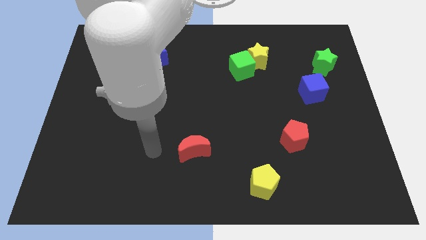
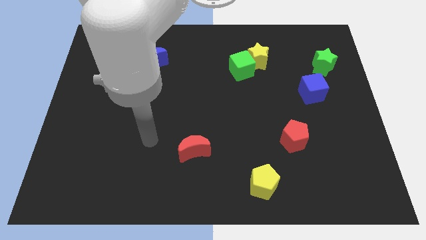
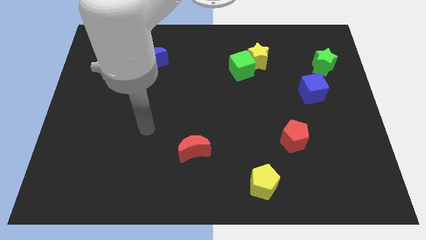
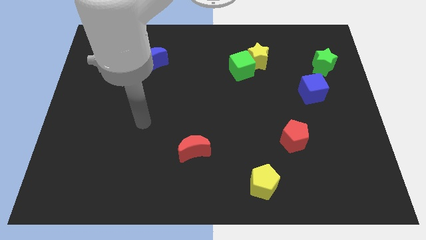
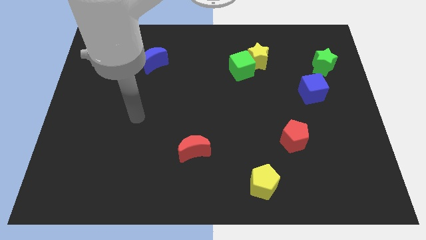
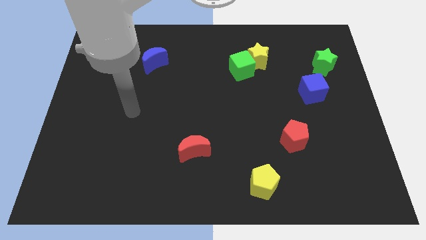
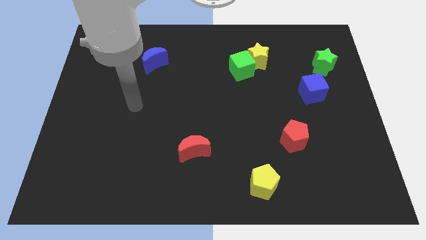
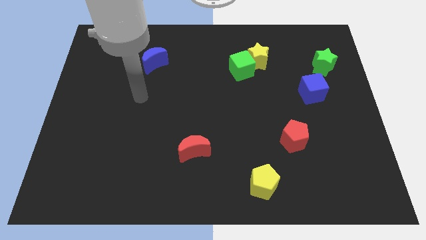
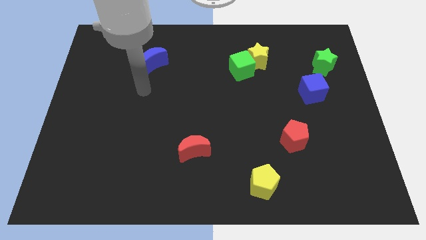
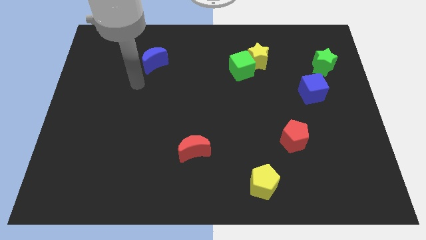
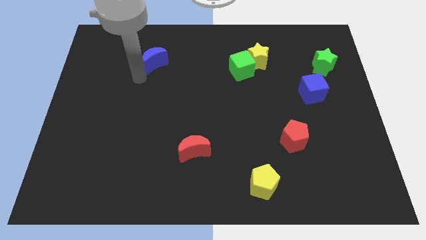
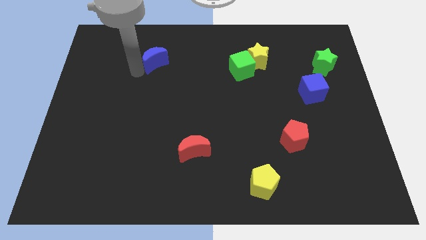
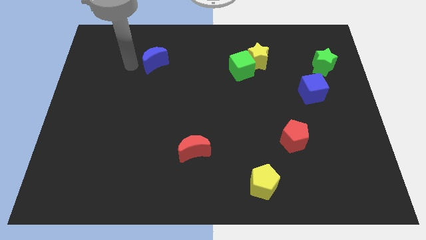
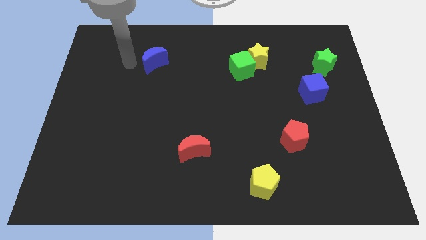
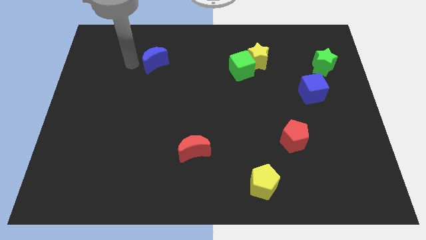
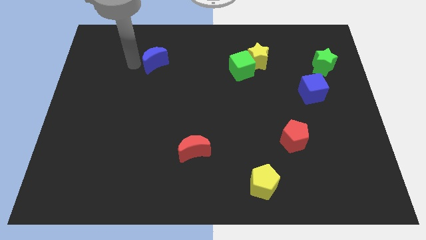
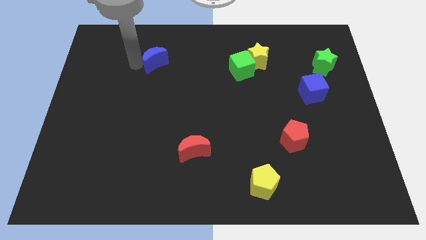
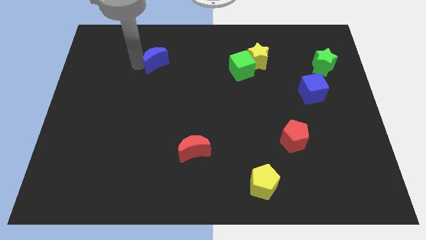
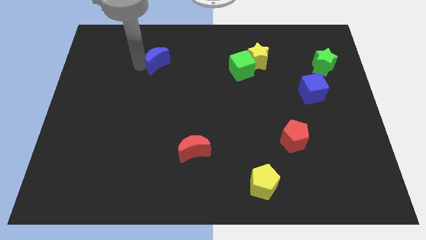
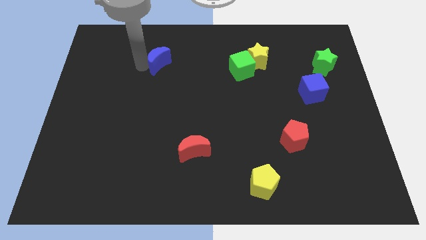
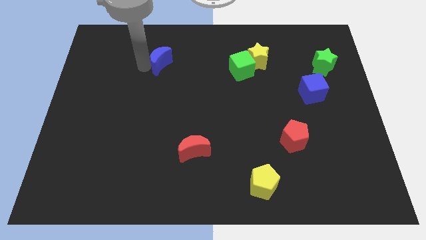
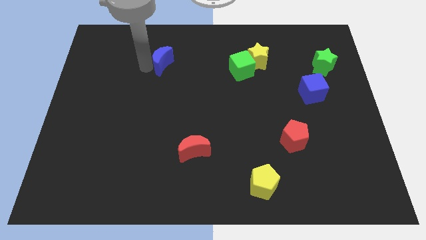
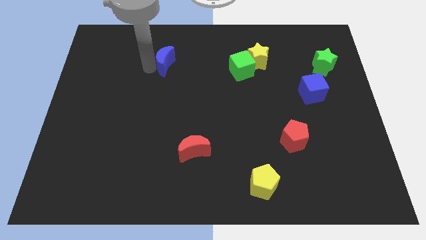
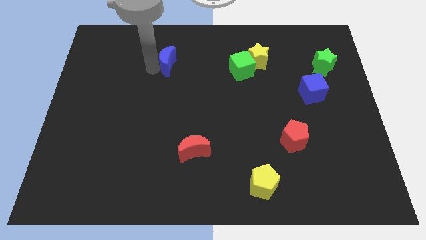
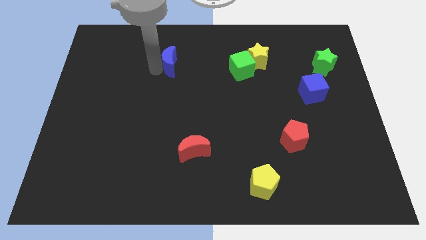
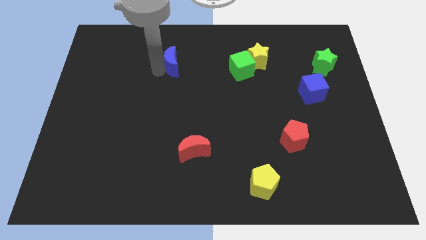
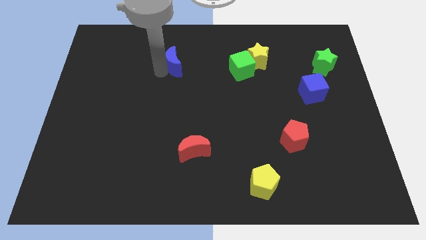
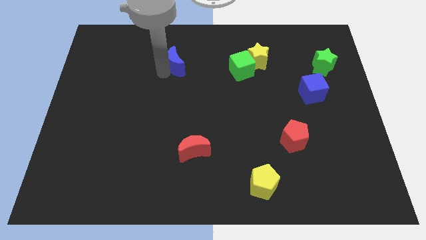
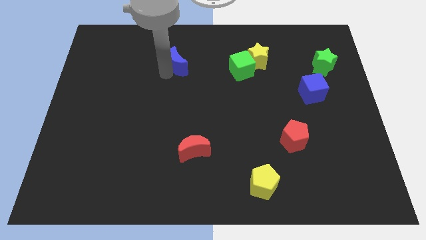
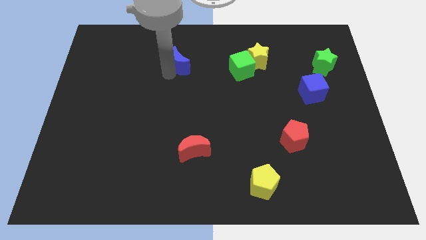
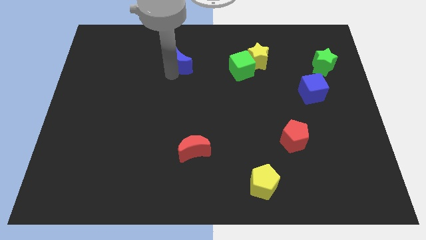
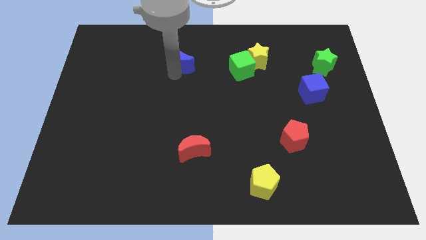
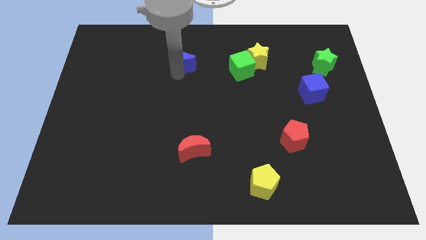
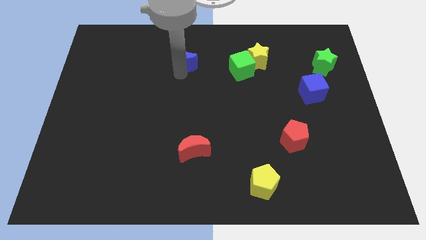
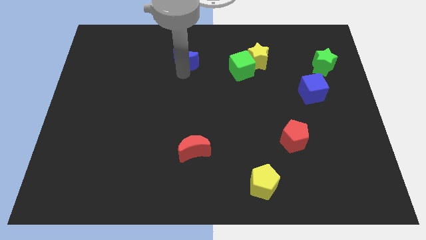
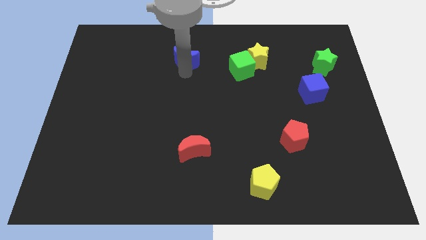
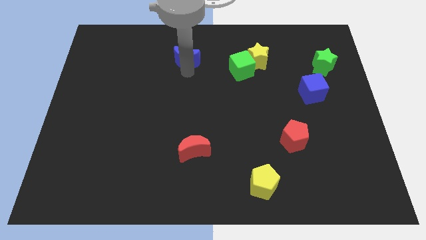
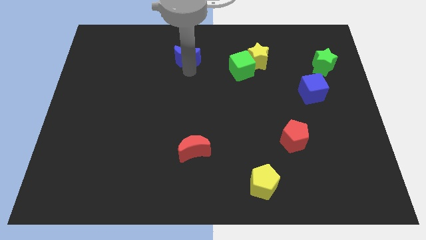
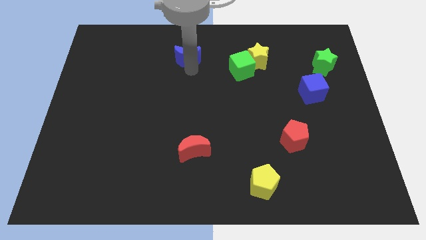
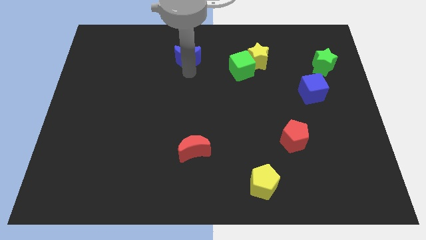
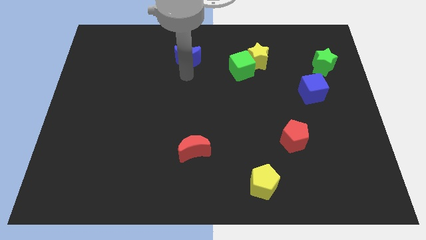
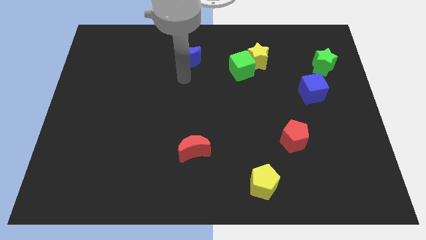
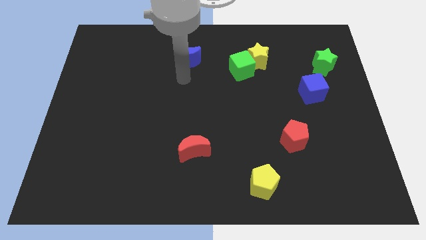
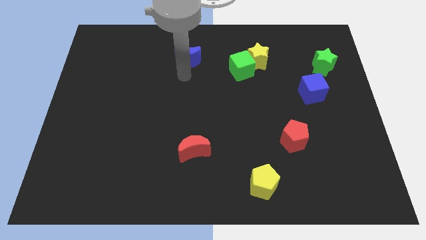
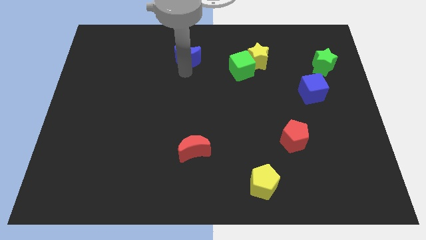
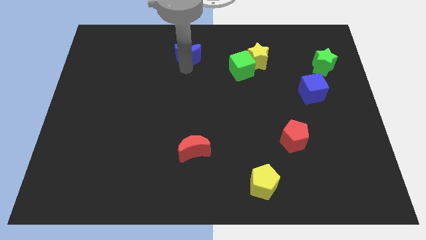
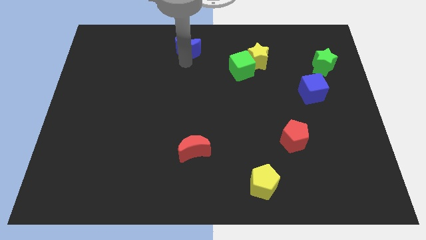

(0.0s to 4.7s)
slide the blue moon to the top side

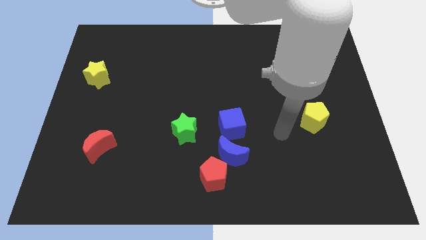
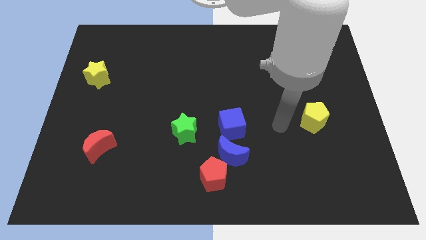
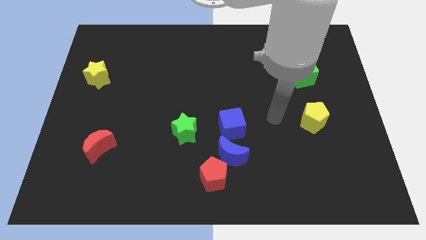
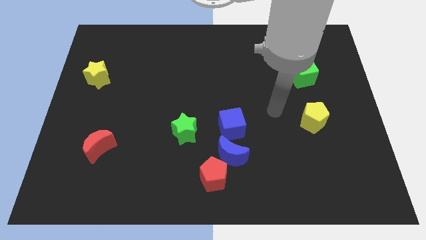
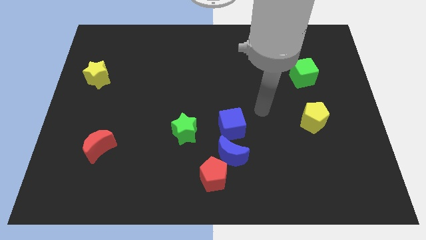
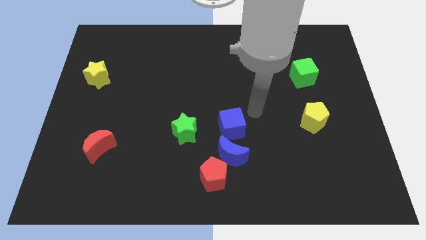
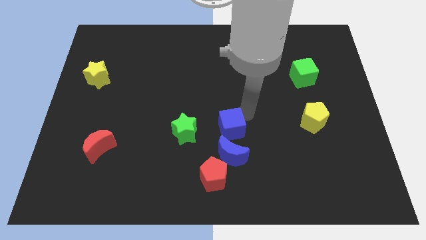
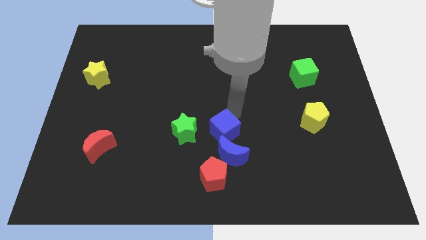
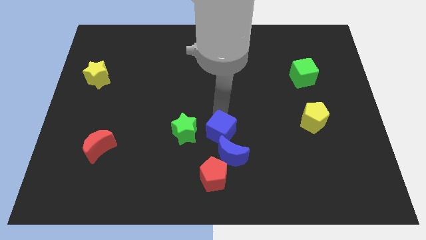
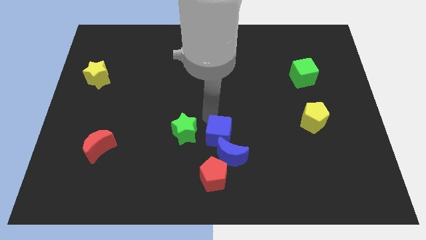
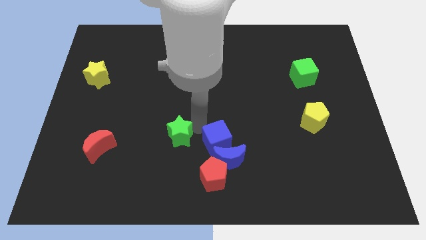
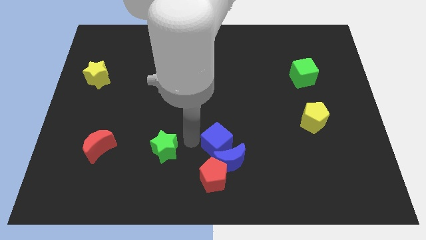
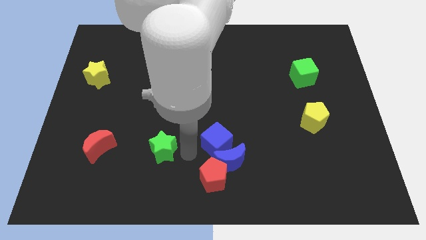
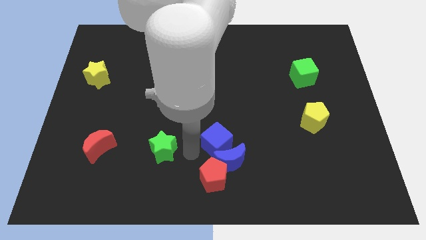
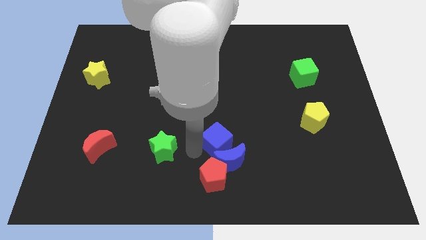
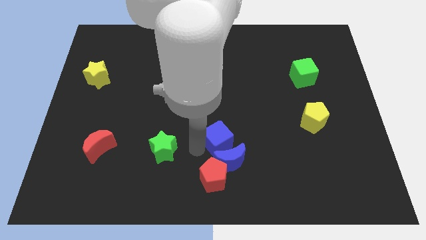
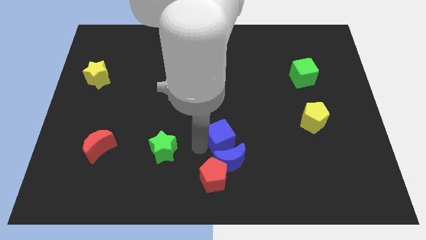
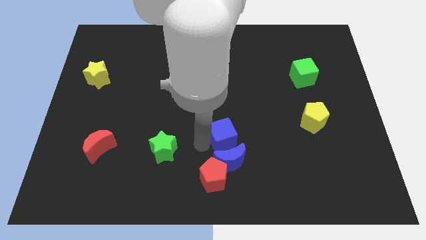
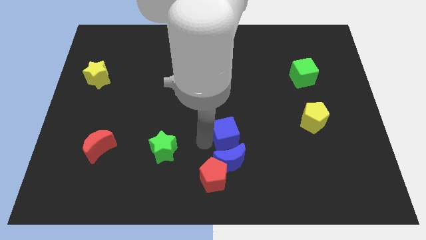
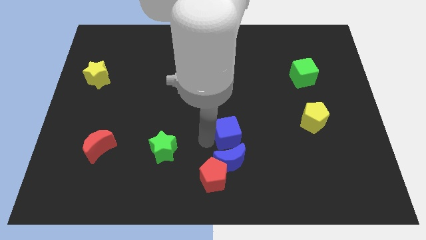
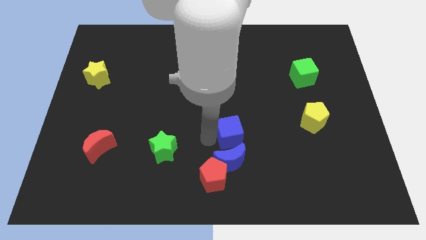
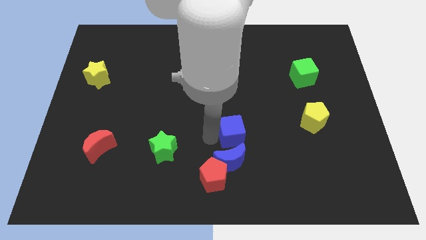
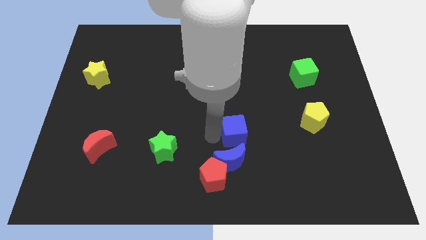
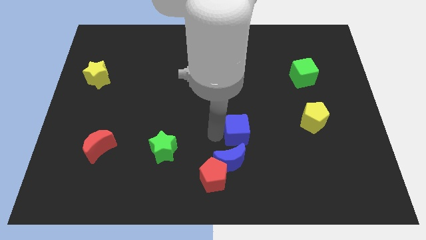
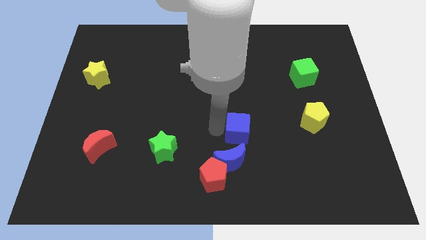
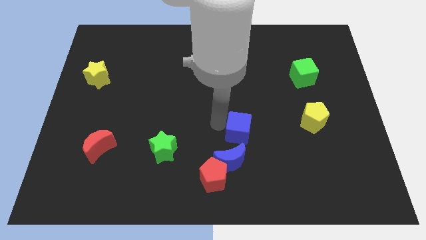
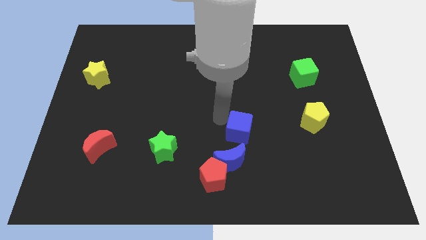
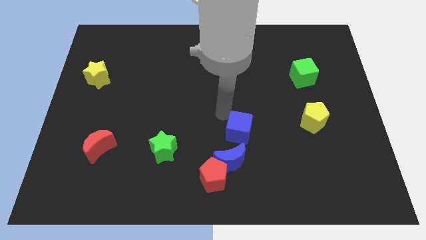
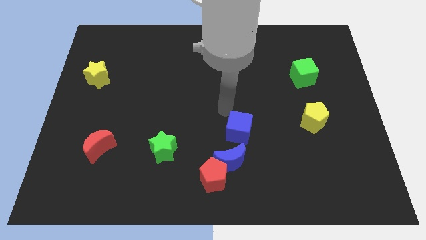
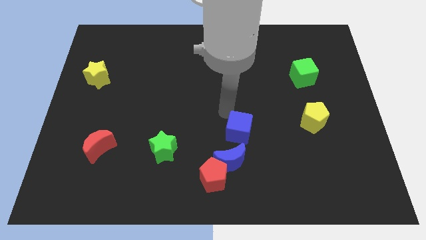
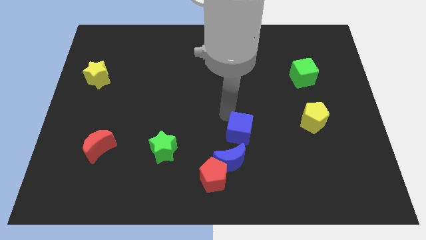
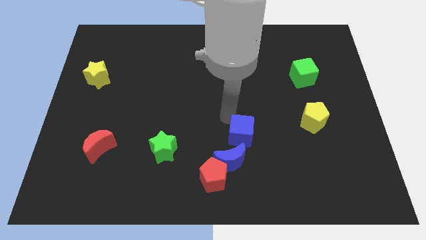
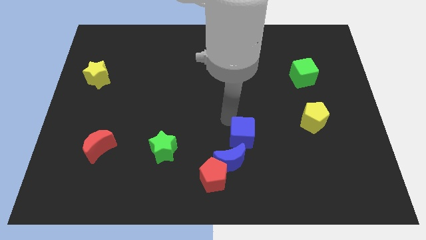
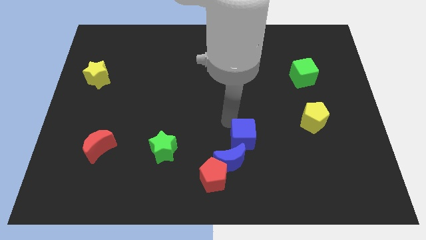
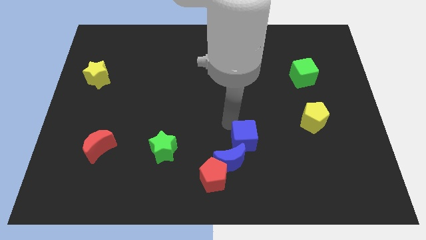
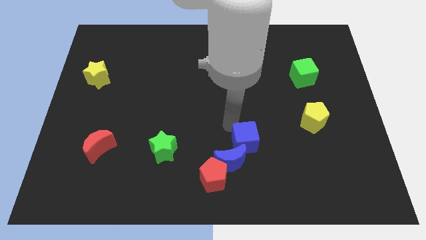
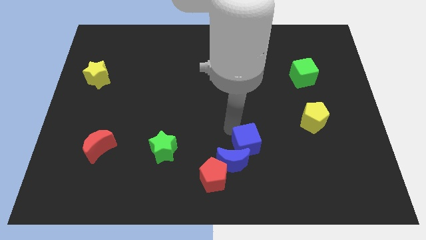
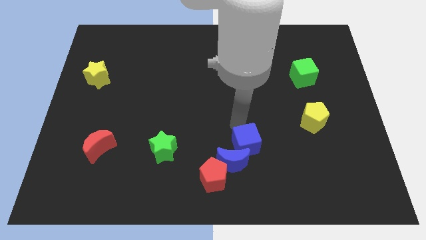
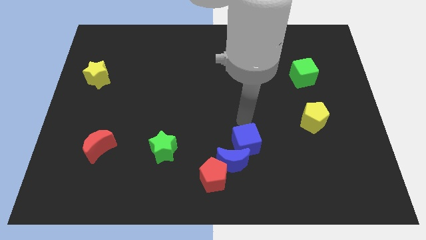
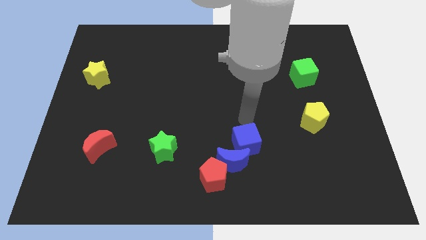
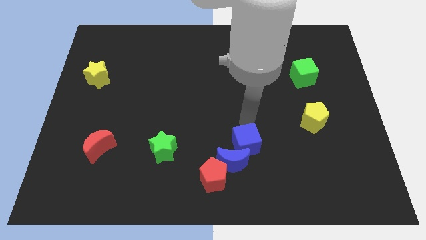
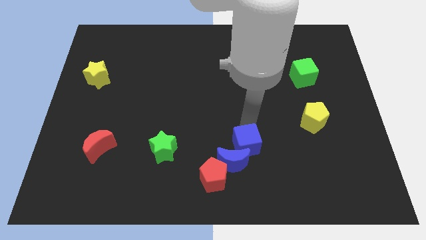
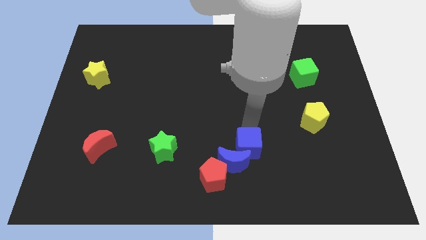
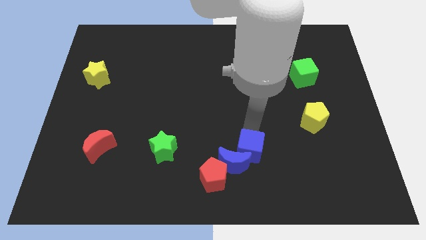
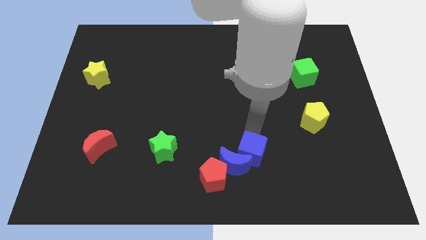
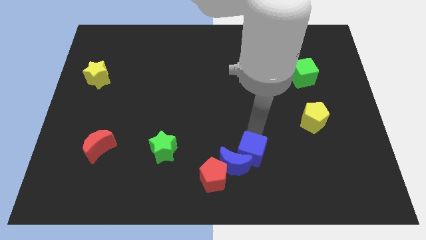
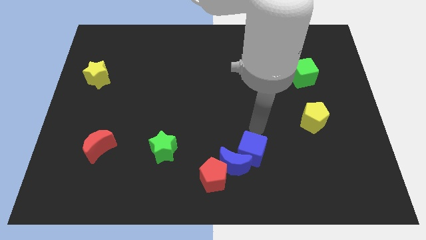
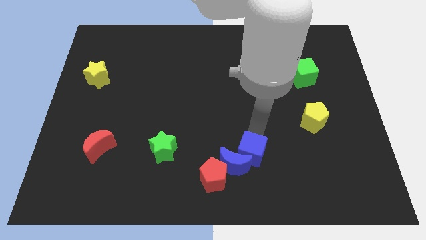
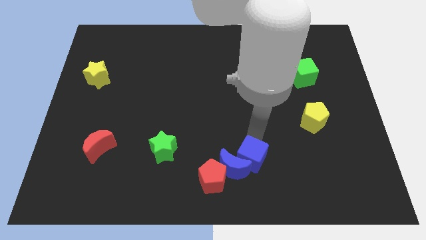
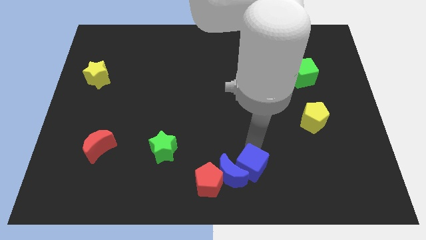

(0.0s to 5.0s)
put the blue cube to the bottom
